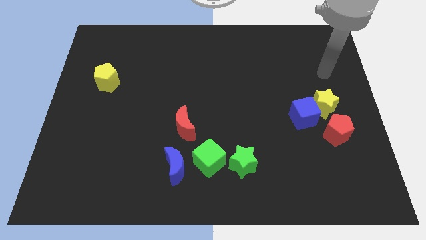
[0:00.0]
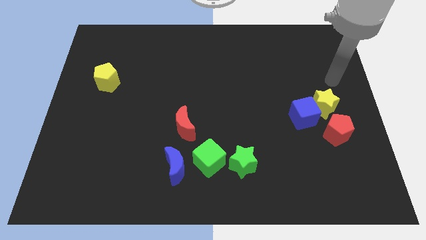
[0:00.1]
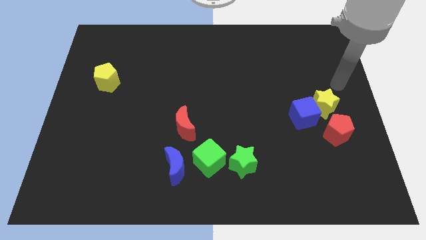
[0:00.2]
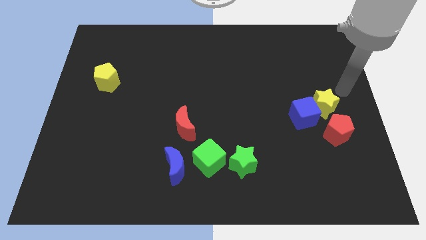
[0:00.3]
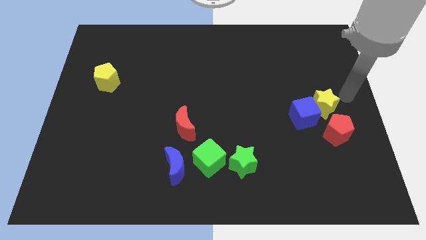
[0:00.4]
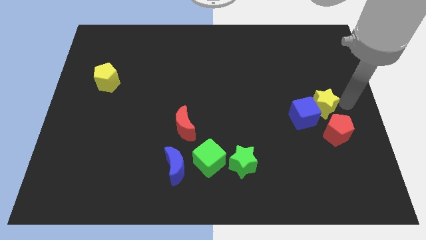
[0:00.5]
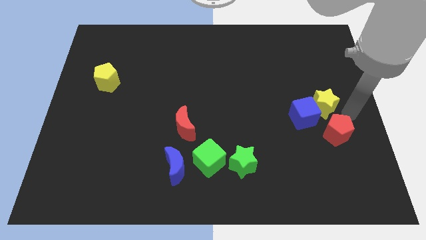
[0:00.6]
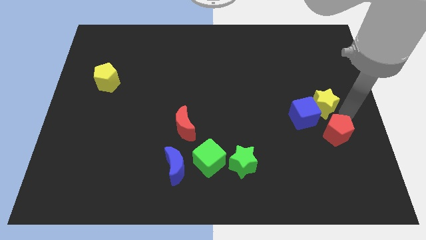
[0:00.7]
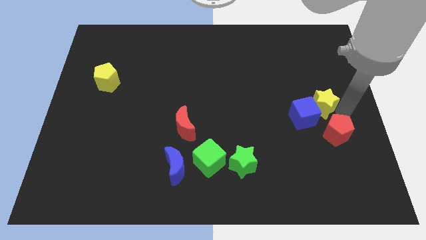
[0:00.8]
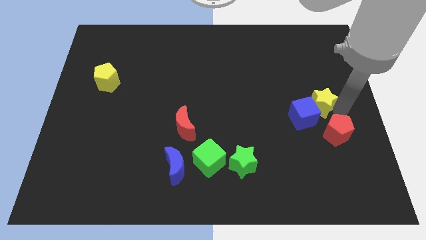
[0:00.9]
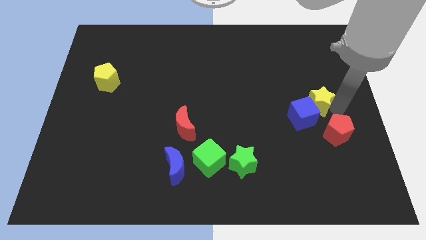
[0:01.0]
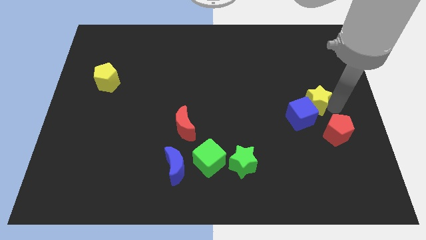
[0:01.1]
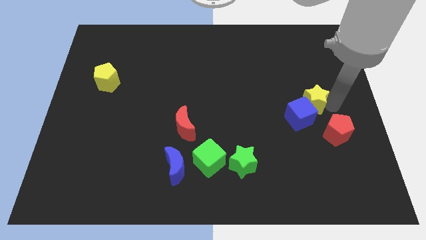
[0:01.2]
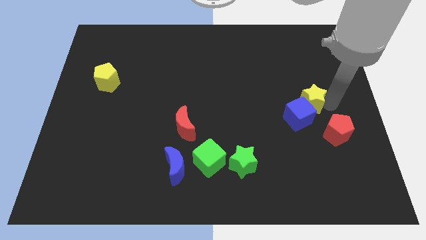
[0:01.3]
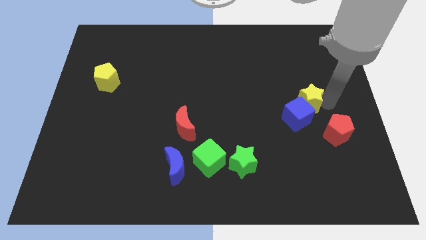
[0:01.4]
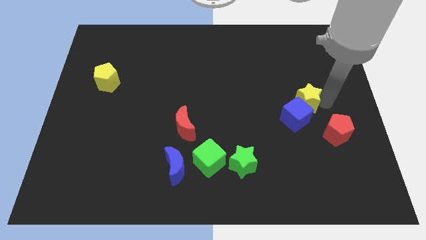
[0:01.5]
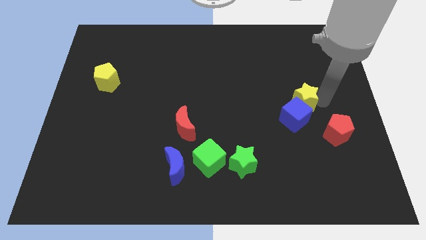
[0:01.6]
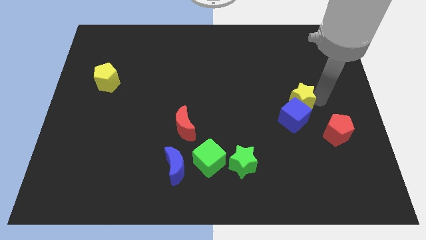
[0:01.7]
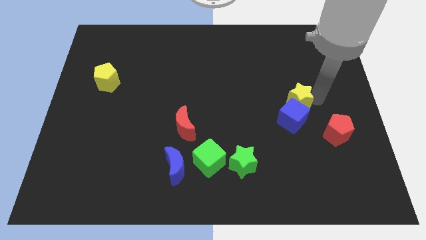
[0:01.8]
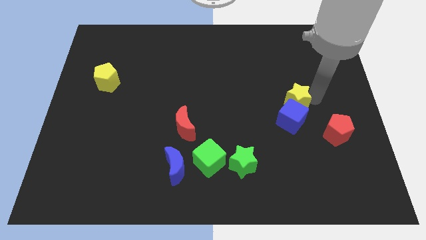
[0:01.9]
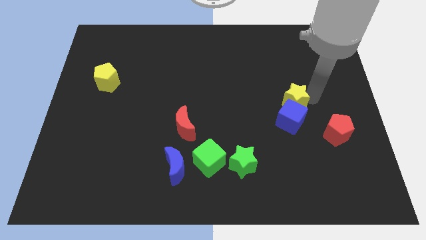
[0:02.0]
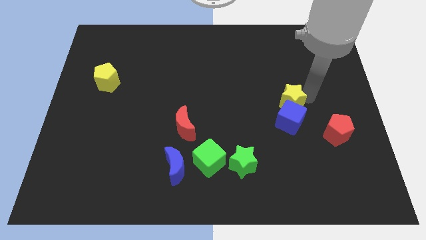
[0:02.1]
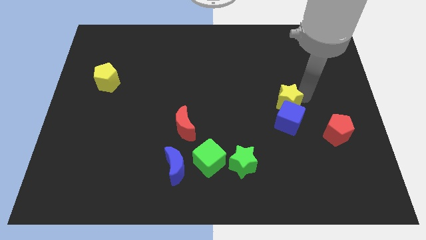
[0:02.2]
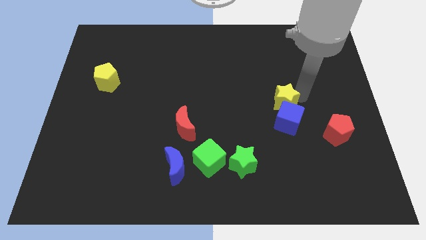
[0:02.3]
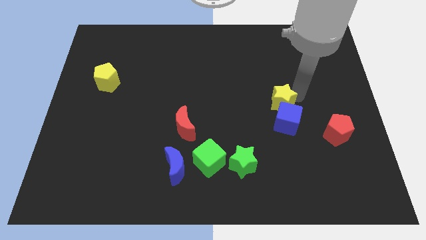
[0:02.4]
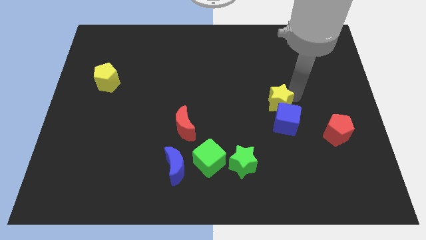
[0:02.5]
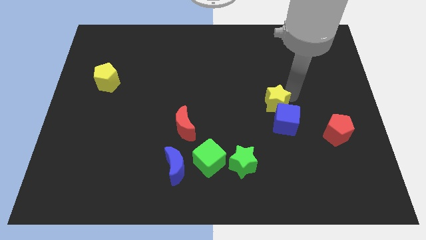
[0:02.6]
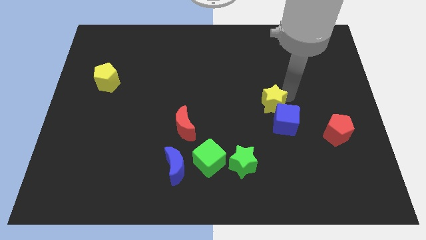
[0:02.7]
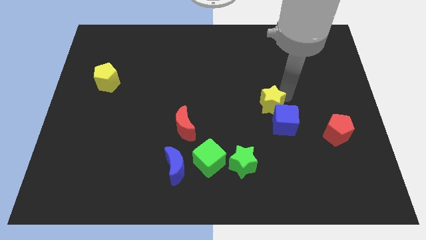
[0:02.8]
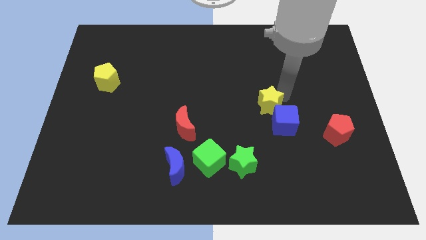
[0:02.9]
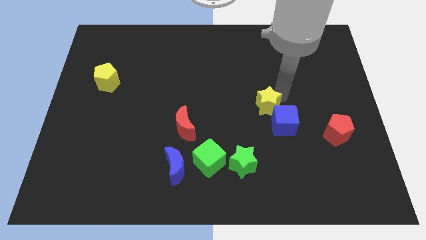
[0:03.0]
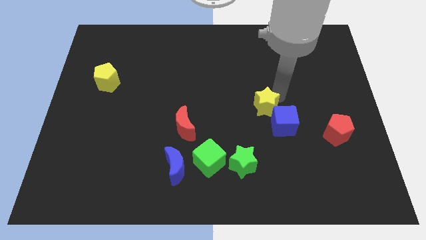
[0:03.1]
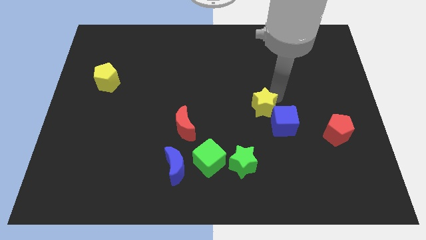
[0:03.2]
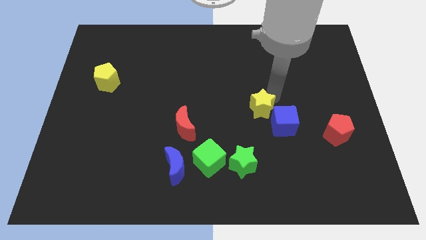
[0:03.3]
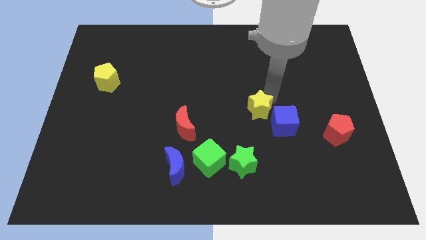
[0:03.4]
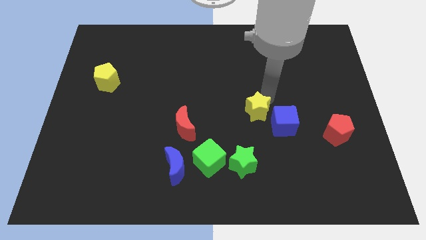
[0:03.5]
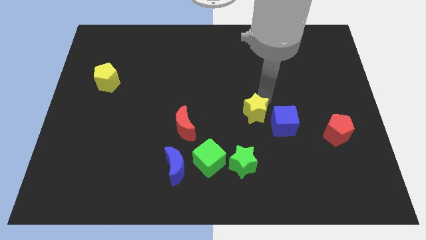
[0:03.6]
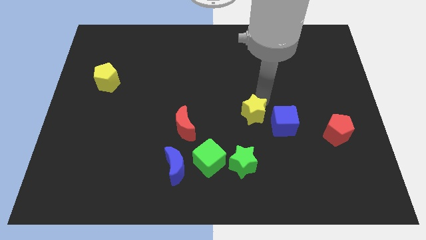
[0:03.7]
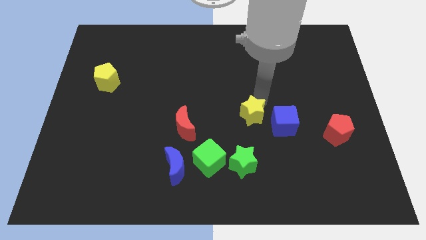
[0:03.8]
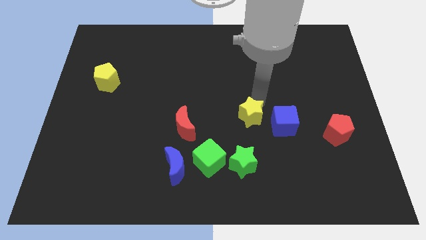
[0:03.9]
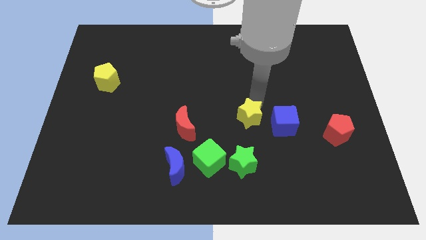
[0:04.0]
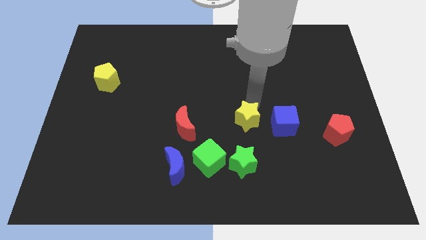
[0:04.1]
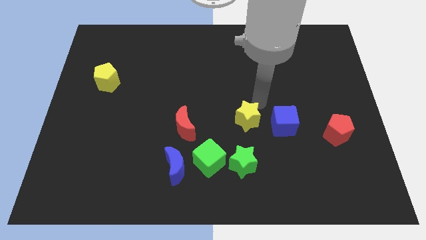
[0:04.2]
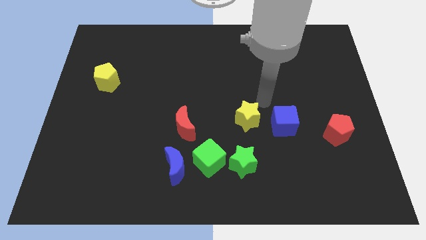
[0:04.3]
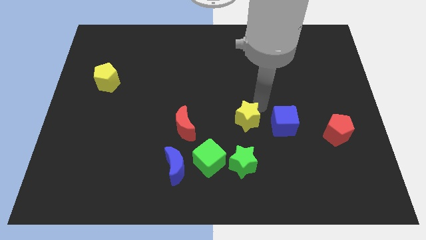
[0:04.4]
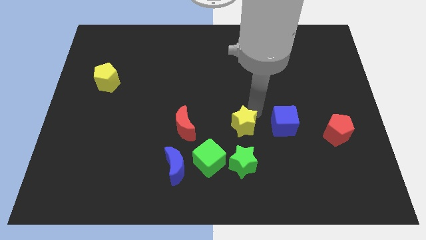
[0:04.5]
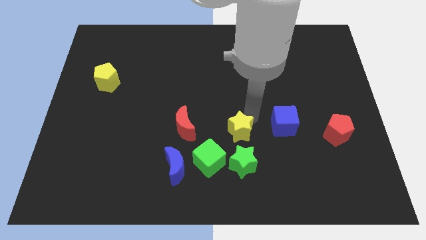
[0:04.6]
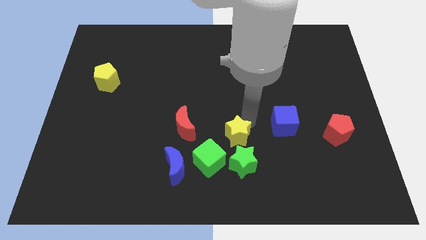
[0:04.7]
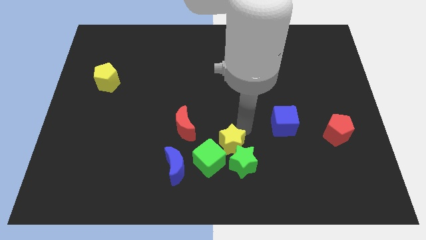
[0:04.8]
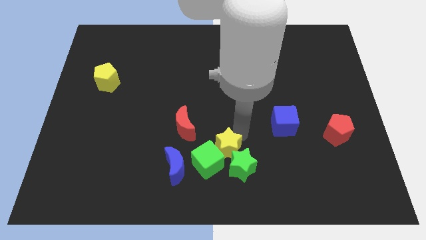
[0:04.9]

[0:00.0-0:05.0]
put the yellow star to the green cube

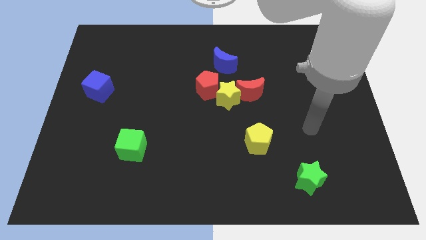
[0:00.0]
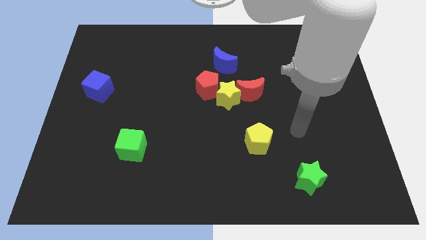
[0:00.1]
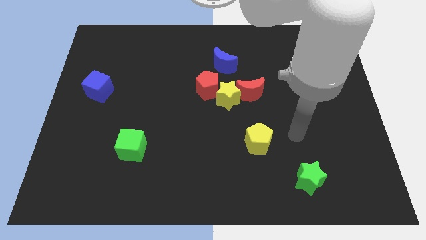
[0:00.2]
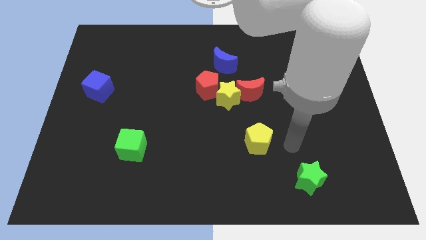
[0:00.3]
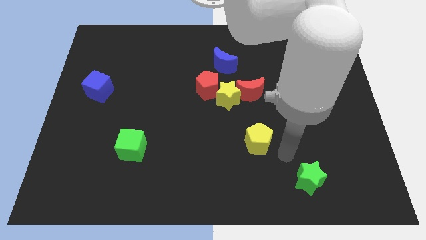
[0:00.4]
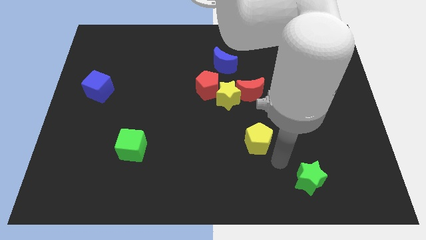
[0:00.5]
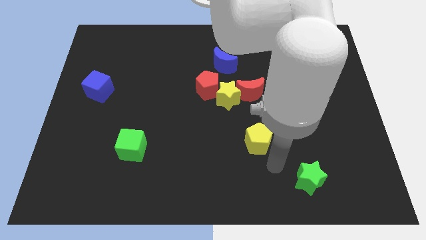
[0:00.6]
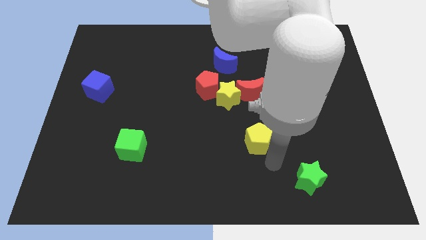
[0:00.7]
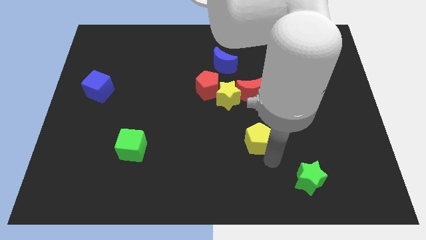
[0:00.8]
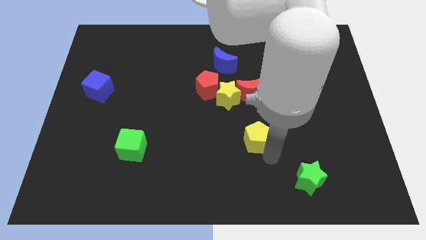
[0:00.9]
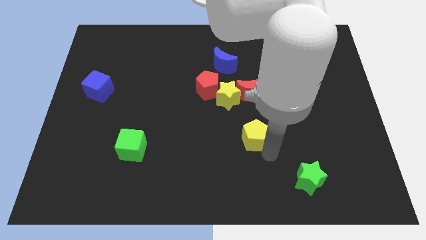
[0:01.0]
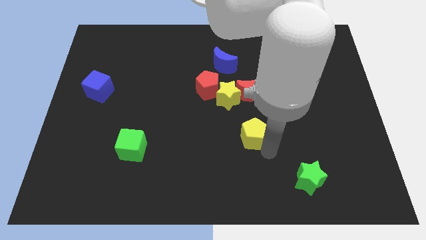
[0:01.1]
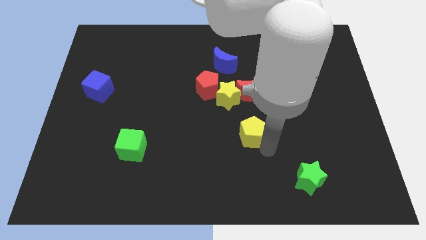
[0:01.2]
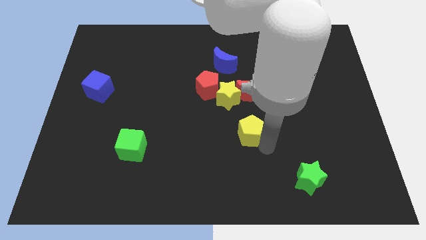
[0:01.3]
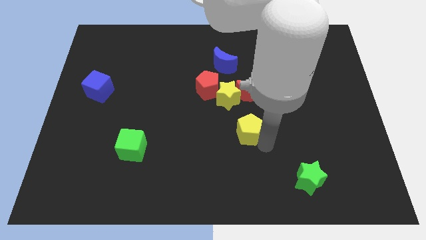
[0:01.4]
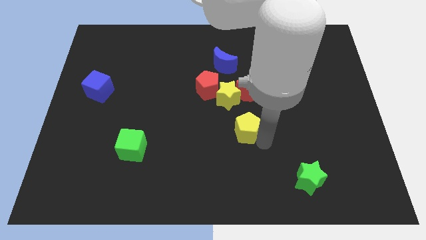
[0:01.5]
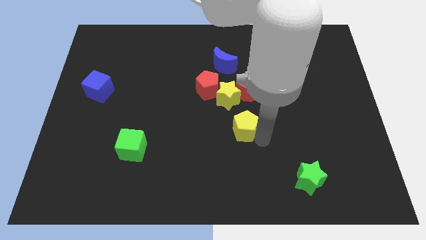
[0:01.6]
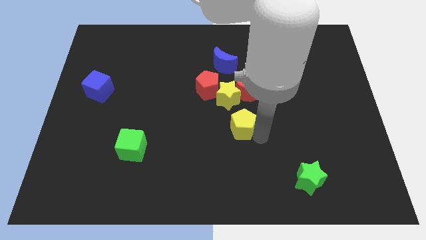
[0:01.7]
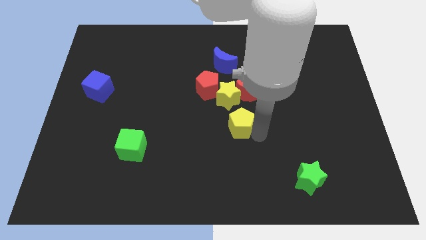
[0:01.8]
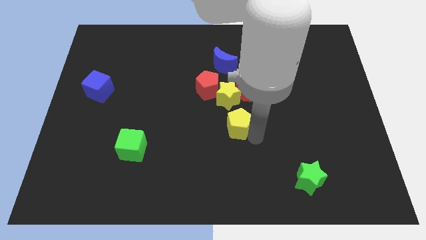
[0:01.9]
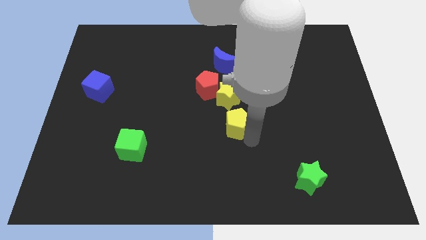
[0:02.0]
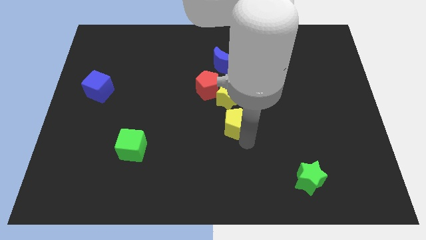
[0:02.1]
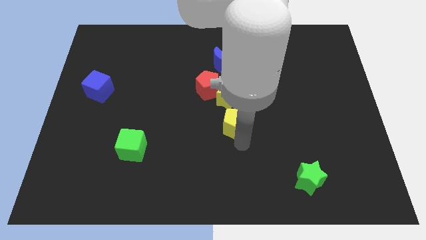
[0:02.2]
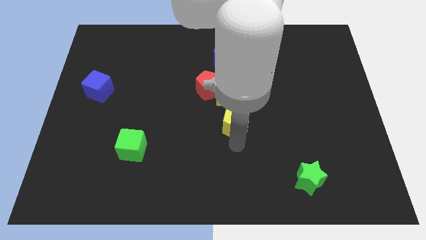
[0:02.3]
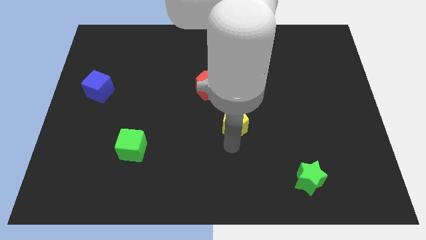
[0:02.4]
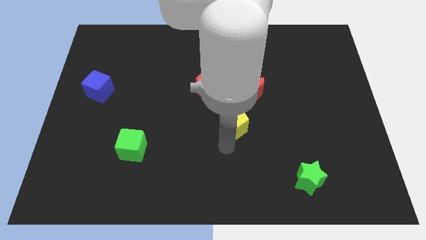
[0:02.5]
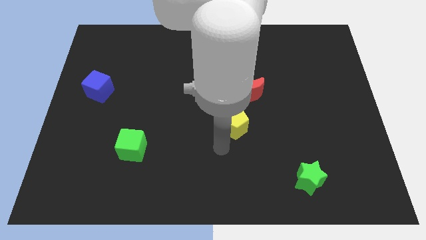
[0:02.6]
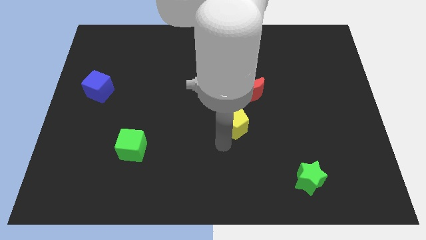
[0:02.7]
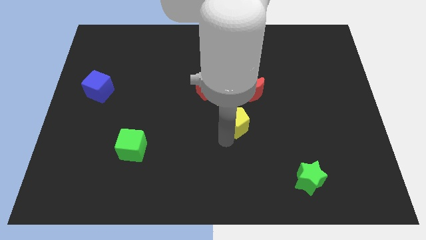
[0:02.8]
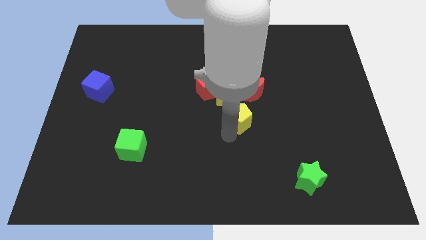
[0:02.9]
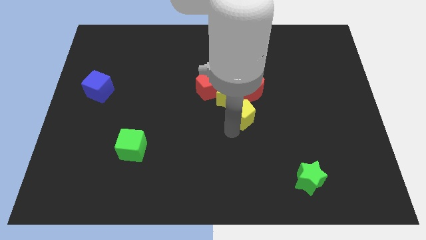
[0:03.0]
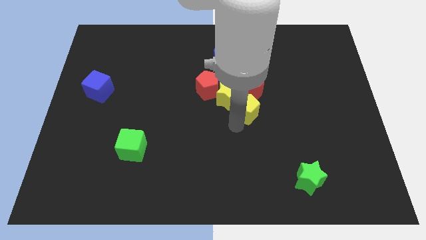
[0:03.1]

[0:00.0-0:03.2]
move the yellow pentagon towards the red moon
